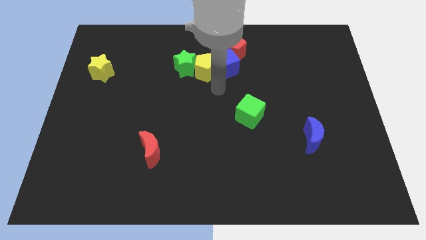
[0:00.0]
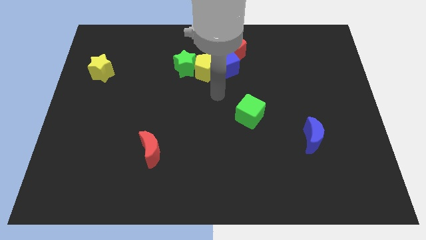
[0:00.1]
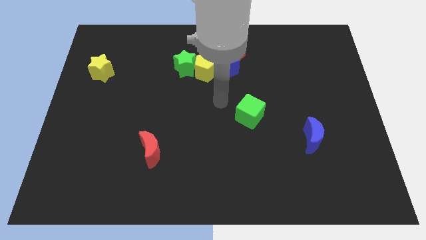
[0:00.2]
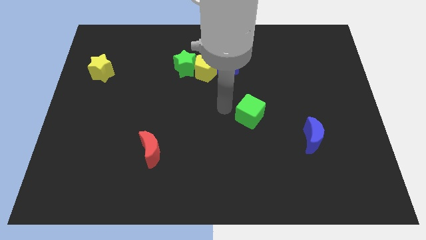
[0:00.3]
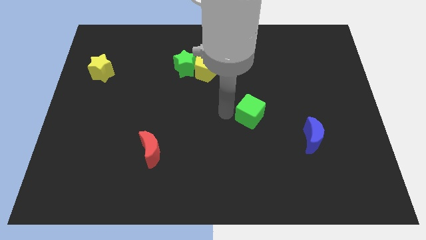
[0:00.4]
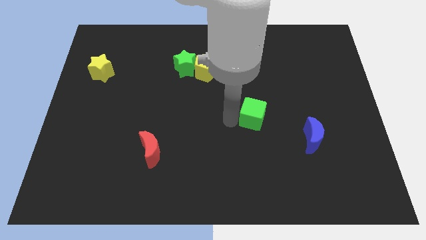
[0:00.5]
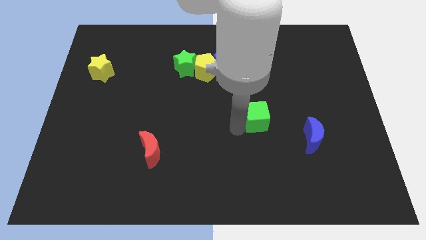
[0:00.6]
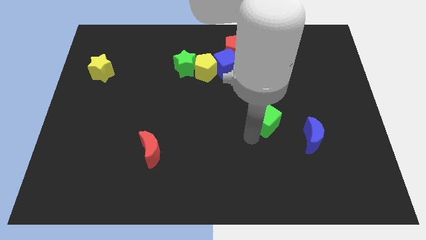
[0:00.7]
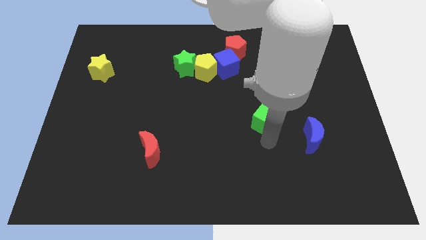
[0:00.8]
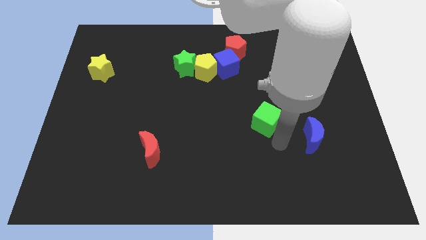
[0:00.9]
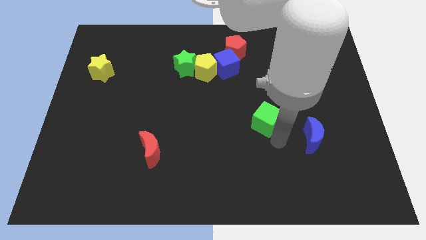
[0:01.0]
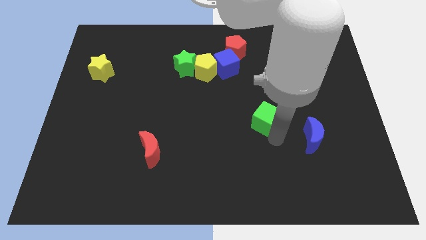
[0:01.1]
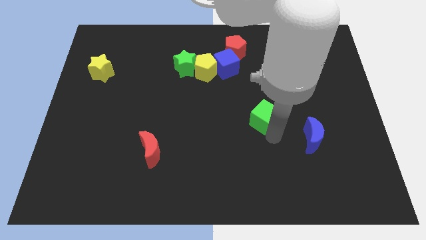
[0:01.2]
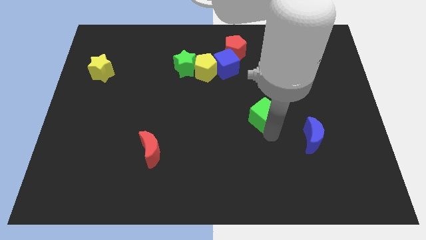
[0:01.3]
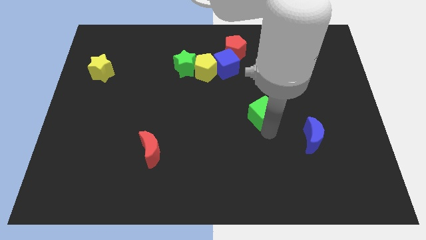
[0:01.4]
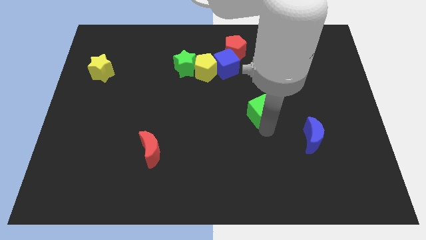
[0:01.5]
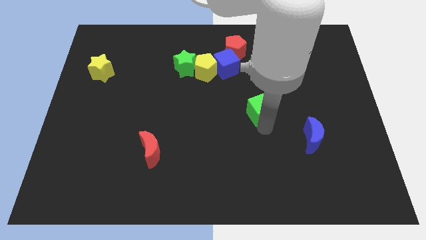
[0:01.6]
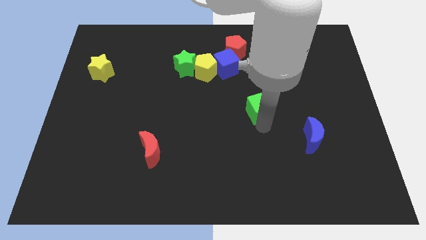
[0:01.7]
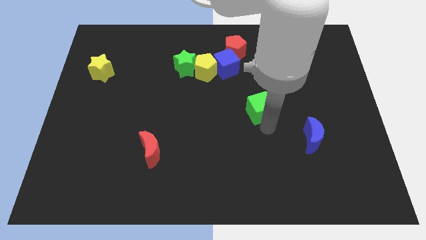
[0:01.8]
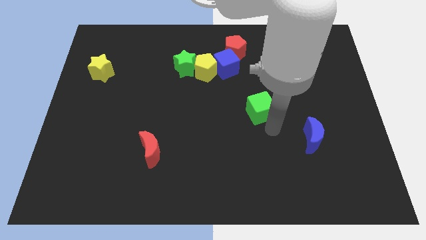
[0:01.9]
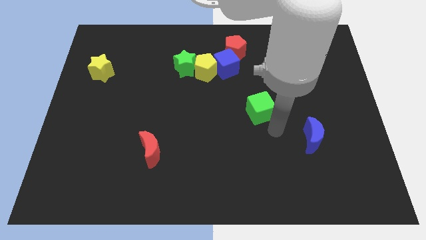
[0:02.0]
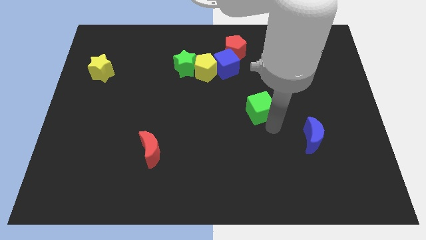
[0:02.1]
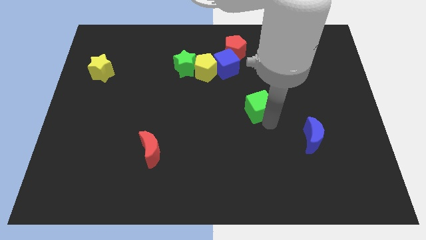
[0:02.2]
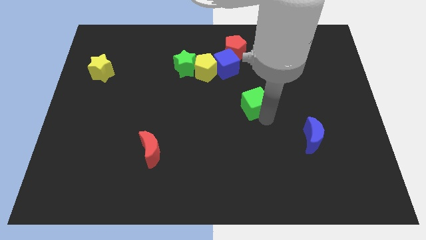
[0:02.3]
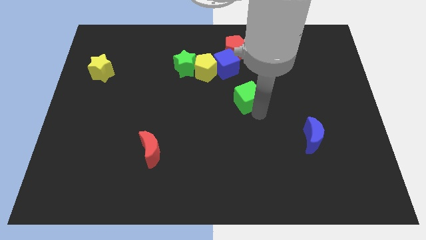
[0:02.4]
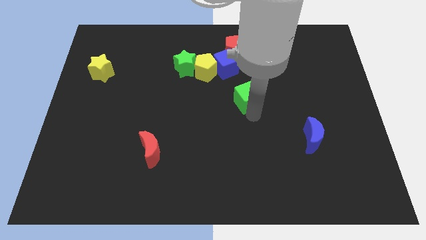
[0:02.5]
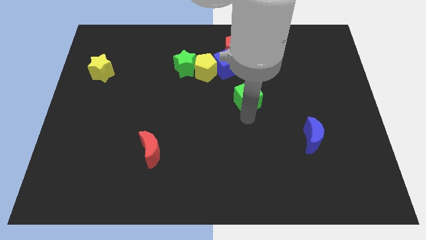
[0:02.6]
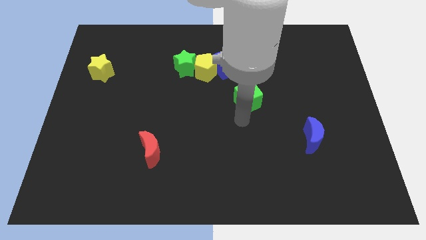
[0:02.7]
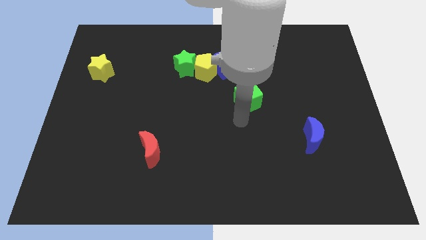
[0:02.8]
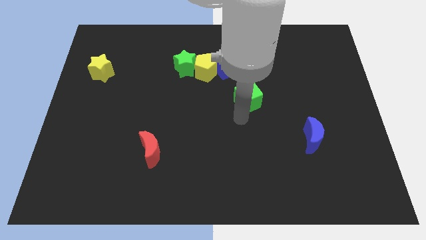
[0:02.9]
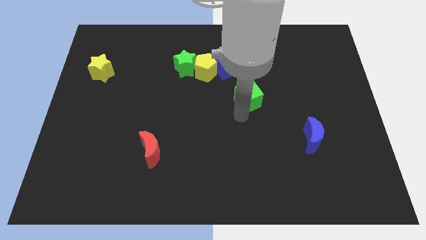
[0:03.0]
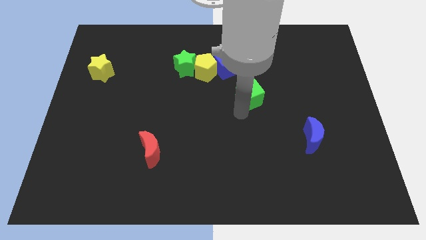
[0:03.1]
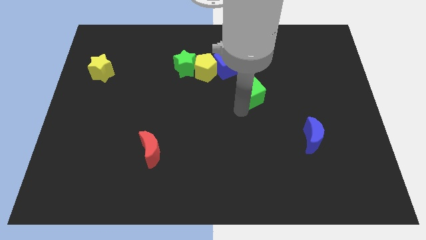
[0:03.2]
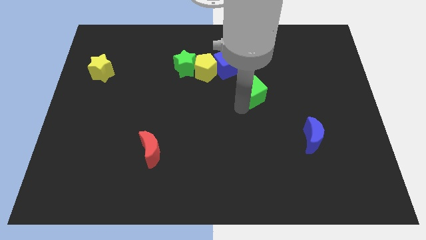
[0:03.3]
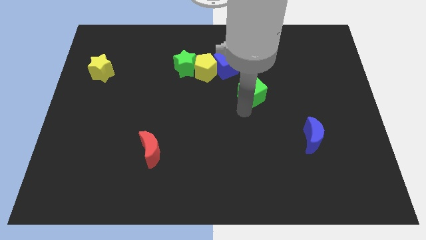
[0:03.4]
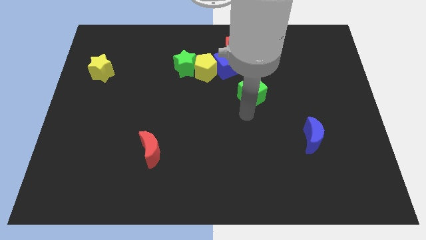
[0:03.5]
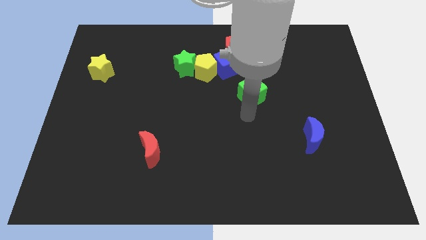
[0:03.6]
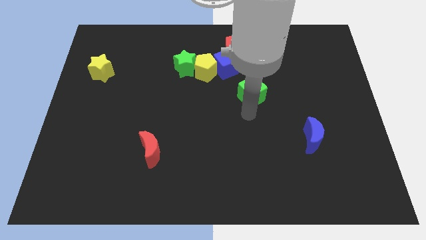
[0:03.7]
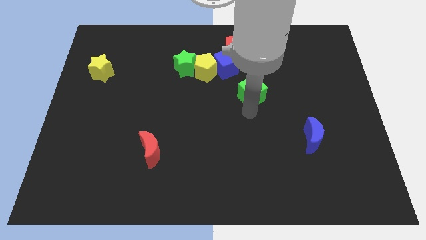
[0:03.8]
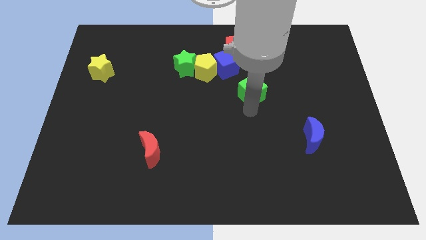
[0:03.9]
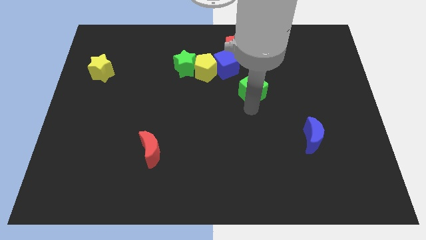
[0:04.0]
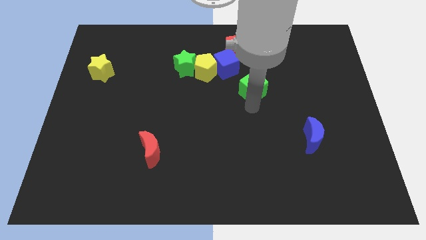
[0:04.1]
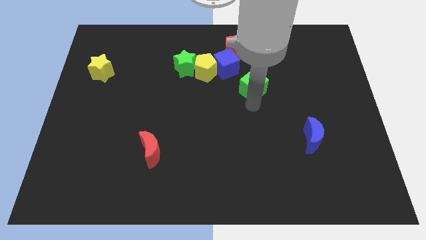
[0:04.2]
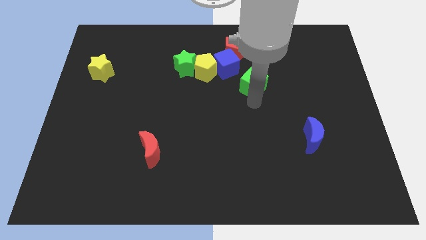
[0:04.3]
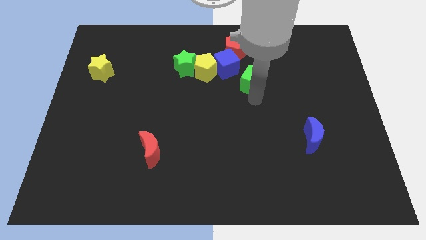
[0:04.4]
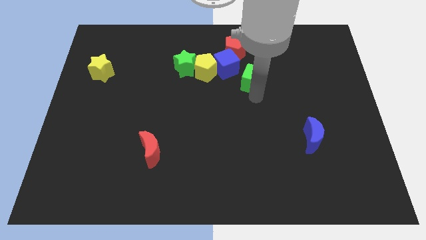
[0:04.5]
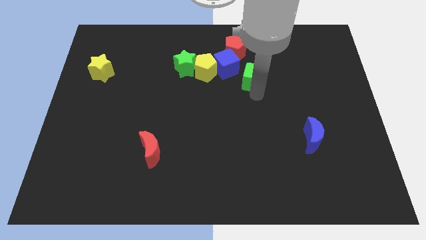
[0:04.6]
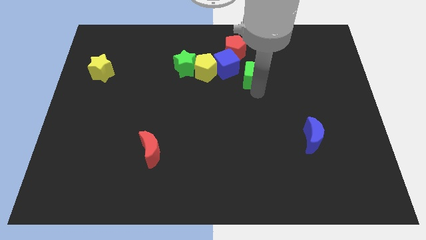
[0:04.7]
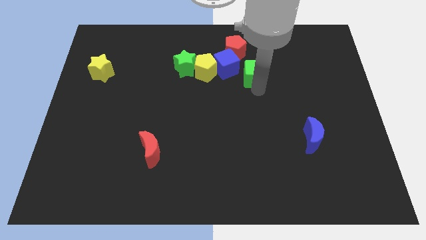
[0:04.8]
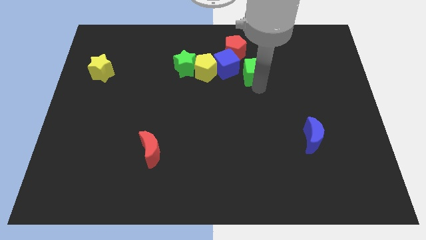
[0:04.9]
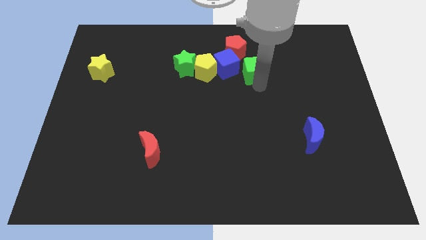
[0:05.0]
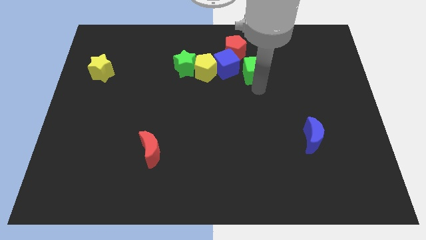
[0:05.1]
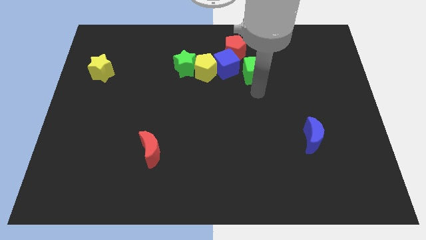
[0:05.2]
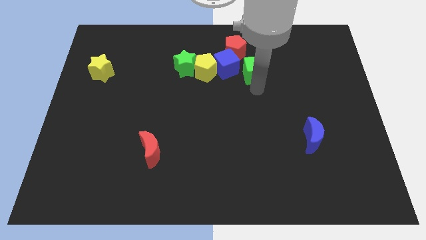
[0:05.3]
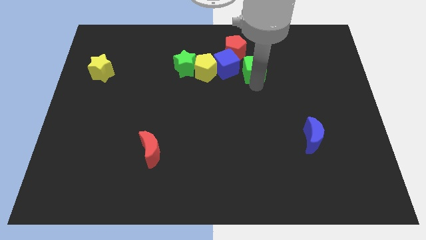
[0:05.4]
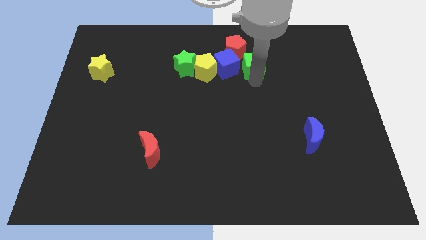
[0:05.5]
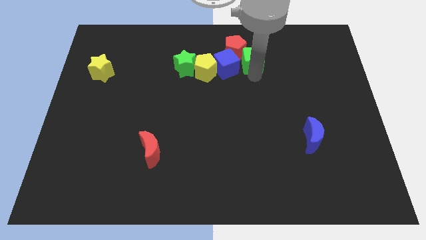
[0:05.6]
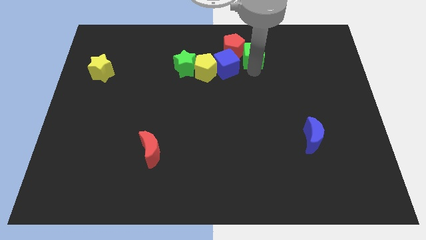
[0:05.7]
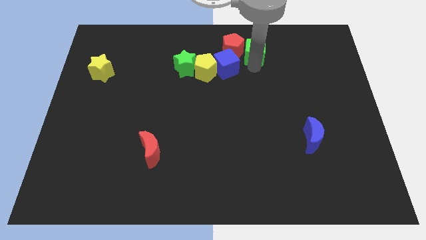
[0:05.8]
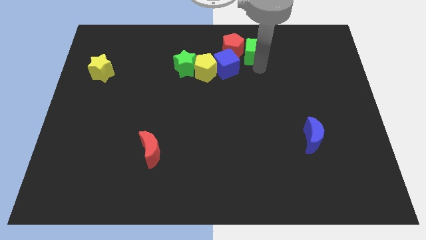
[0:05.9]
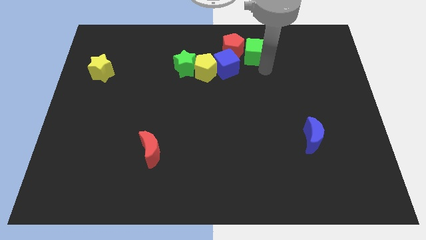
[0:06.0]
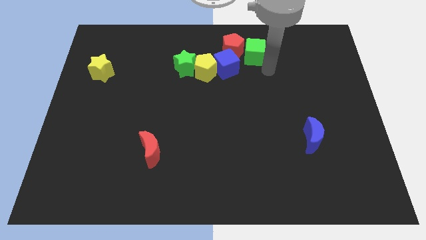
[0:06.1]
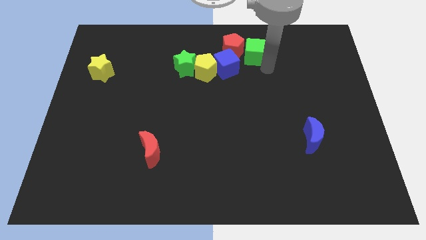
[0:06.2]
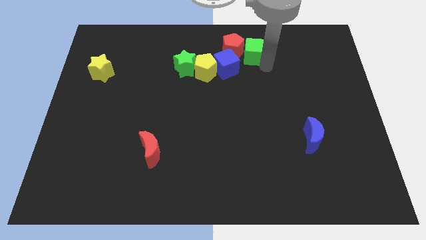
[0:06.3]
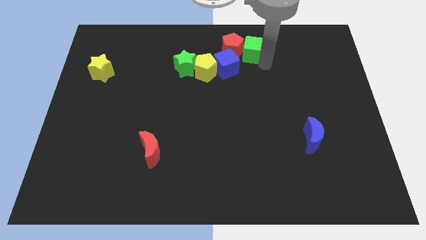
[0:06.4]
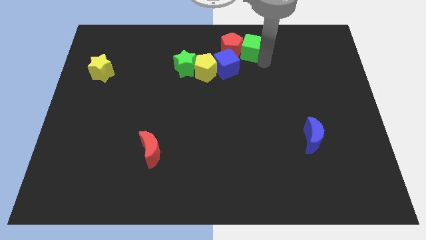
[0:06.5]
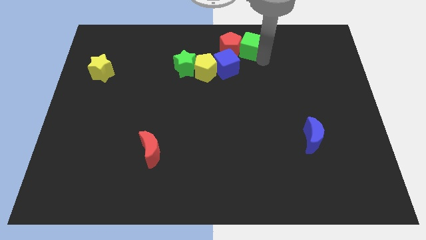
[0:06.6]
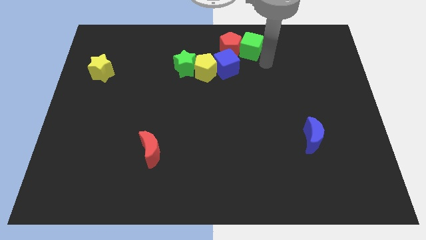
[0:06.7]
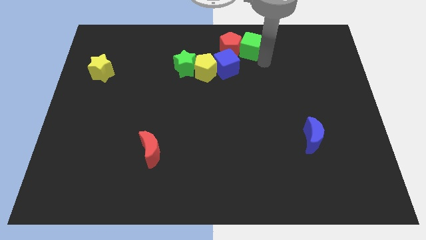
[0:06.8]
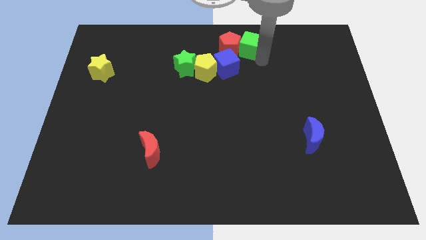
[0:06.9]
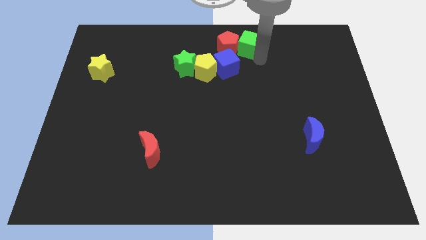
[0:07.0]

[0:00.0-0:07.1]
push the green cube to the top
